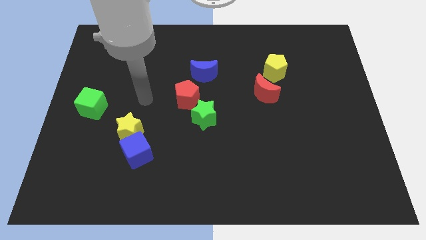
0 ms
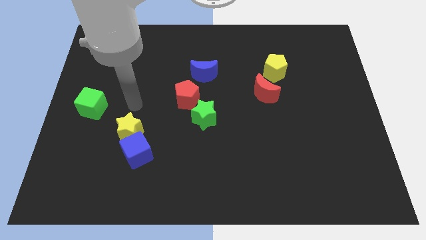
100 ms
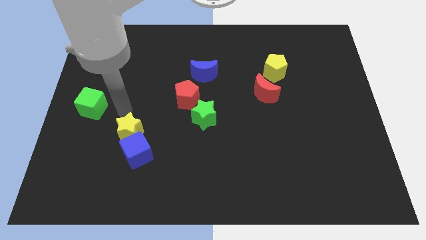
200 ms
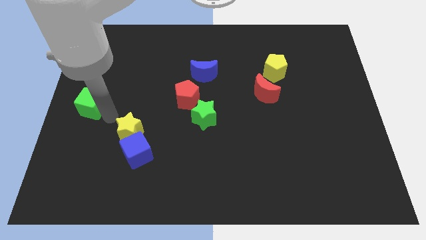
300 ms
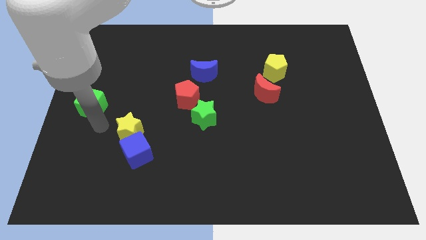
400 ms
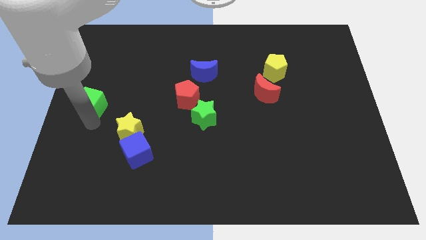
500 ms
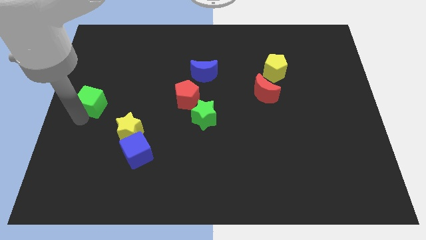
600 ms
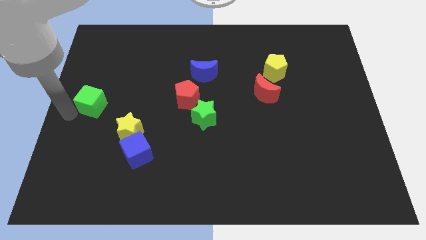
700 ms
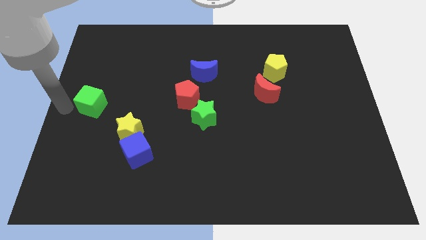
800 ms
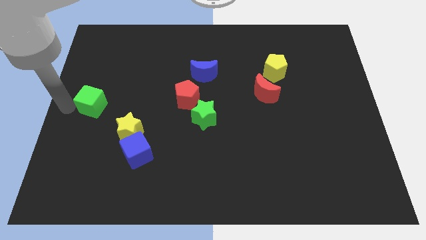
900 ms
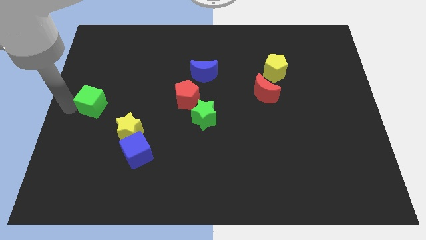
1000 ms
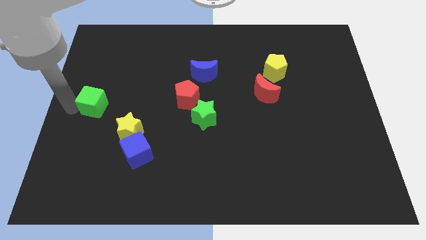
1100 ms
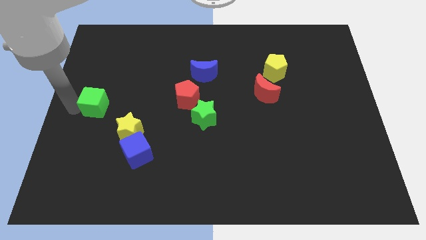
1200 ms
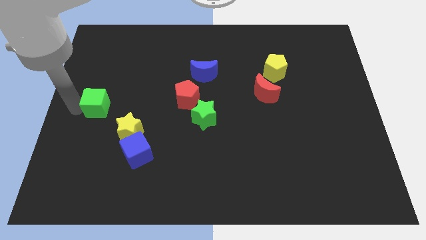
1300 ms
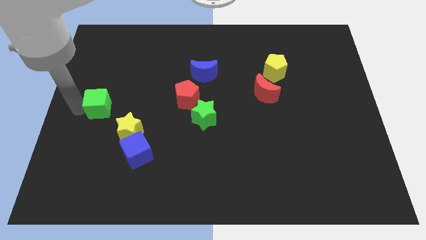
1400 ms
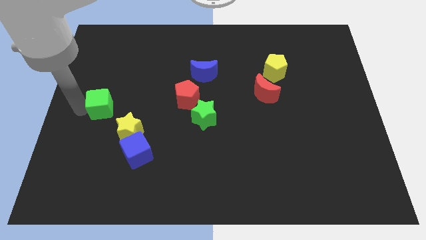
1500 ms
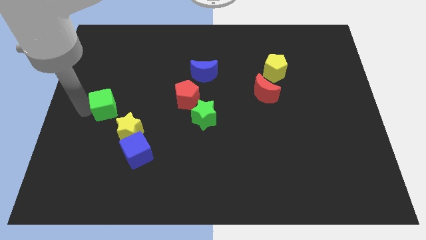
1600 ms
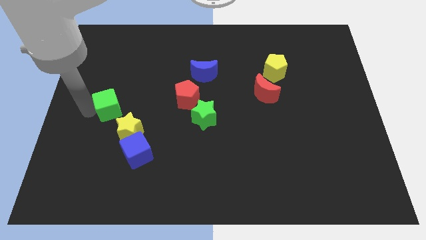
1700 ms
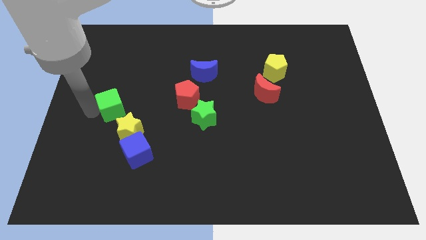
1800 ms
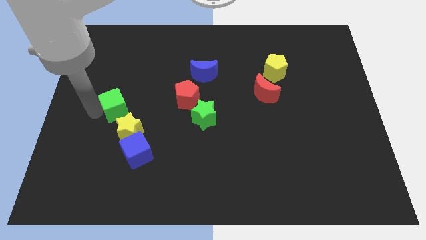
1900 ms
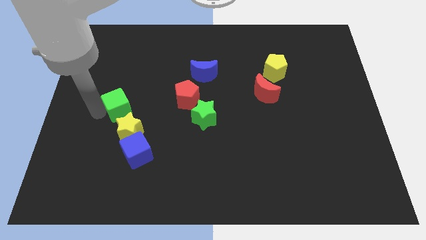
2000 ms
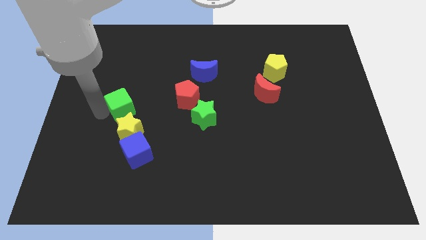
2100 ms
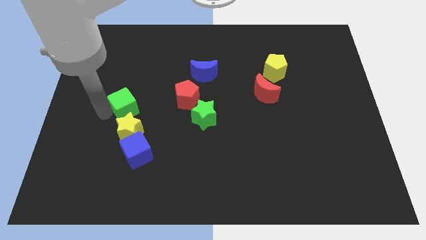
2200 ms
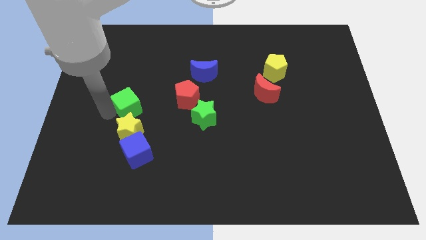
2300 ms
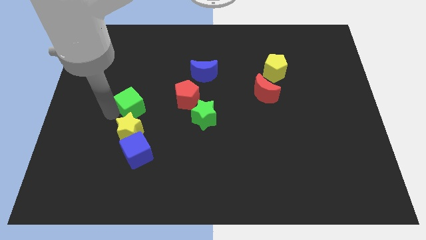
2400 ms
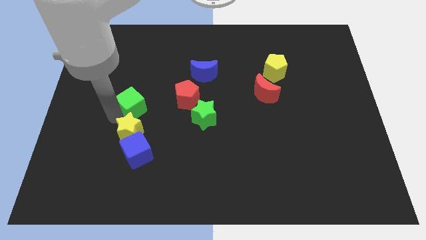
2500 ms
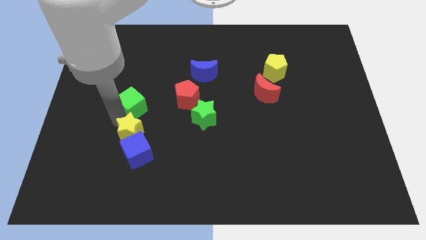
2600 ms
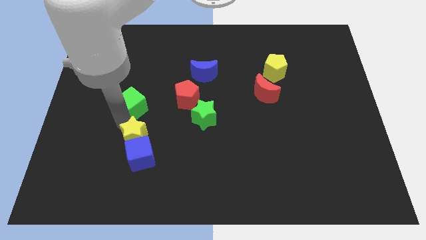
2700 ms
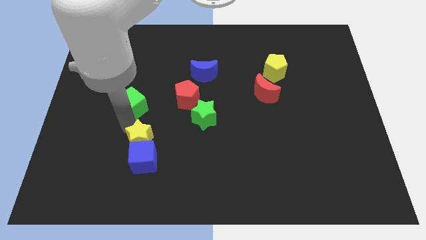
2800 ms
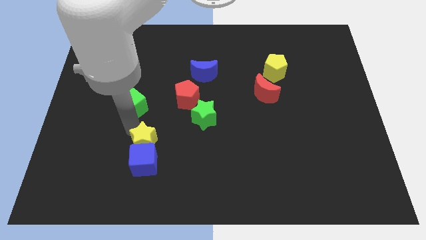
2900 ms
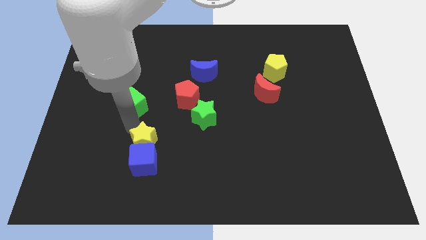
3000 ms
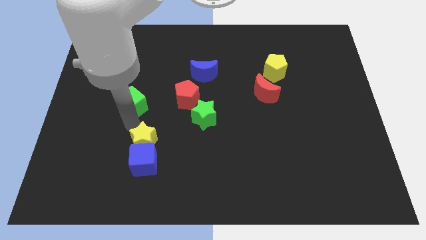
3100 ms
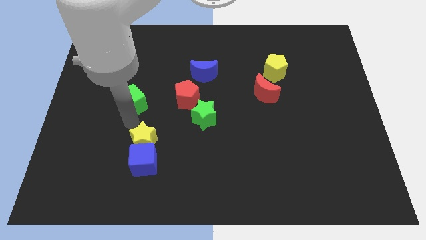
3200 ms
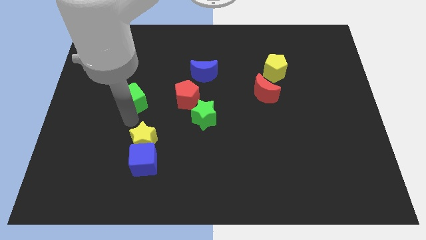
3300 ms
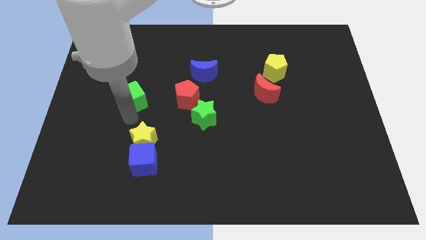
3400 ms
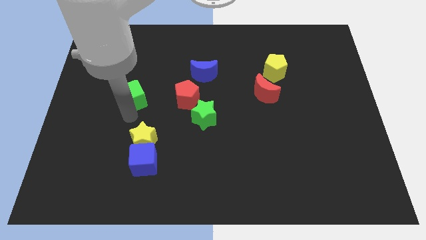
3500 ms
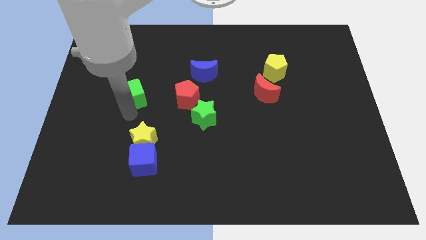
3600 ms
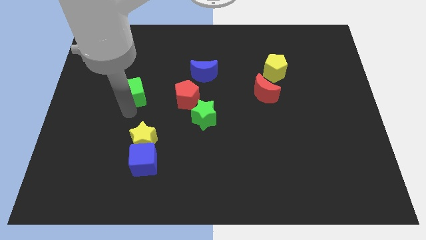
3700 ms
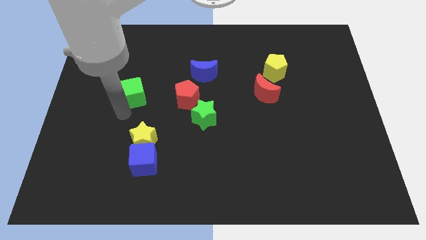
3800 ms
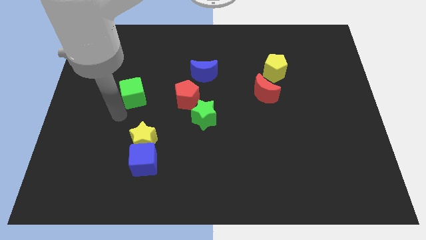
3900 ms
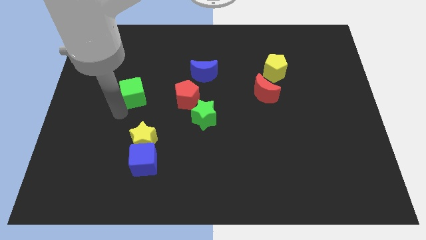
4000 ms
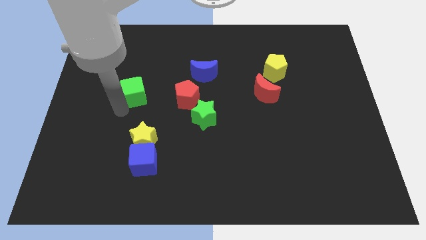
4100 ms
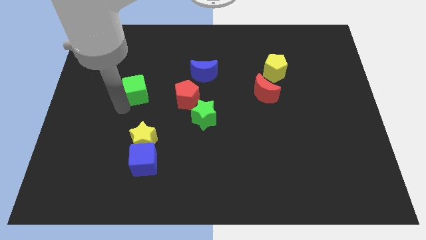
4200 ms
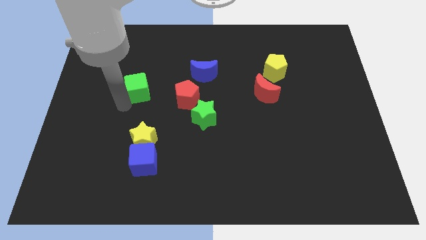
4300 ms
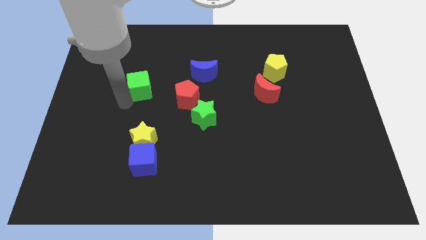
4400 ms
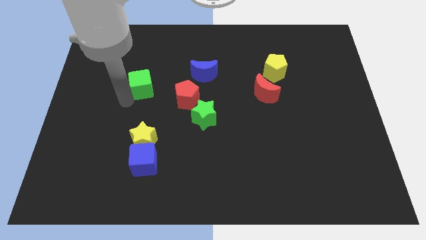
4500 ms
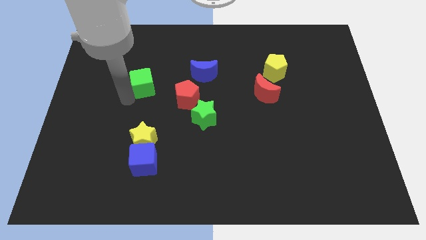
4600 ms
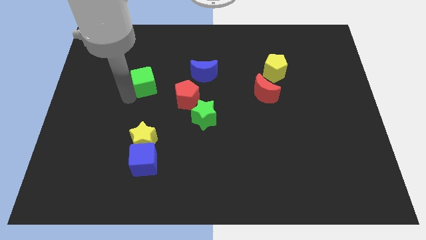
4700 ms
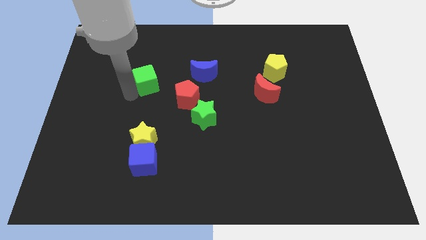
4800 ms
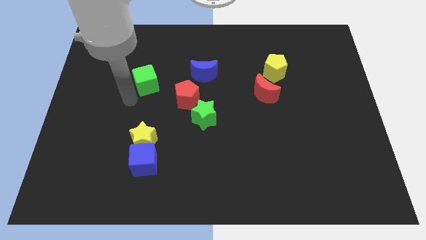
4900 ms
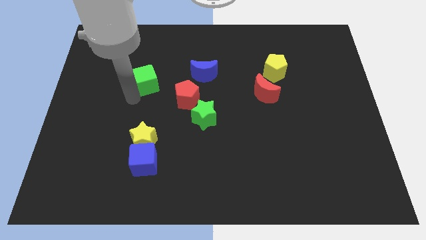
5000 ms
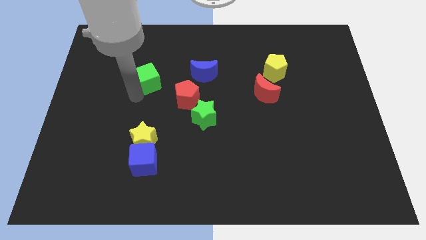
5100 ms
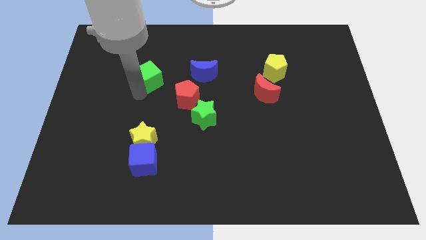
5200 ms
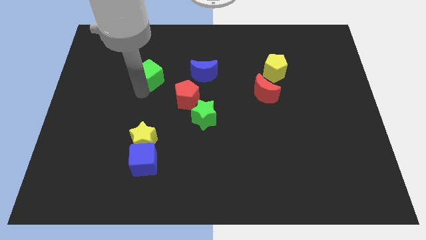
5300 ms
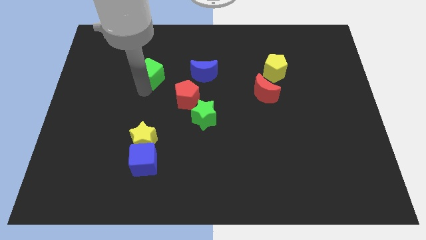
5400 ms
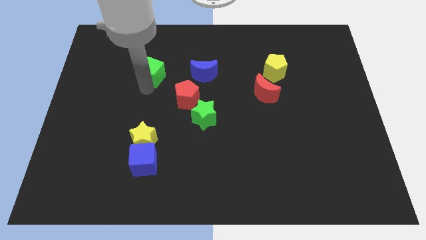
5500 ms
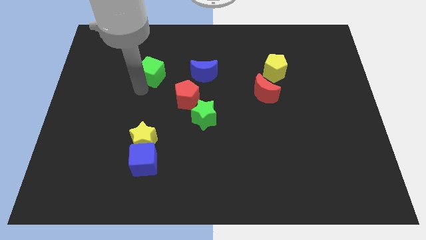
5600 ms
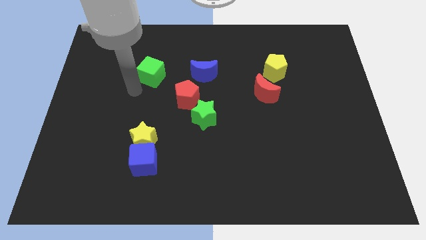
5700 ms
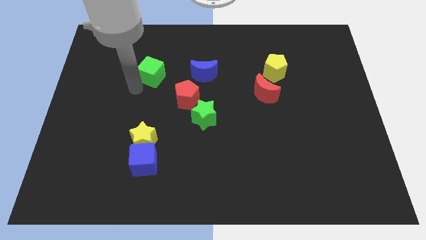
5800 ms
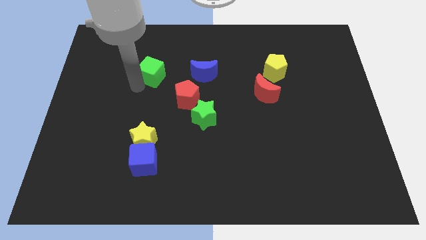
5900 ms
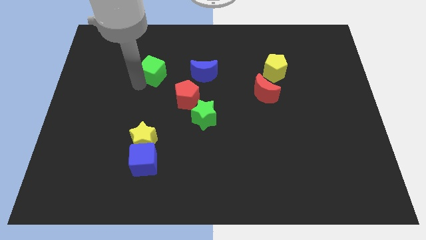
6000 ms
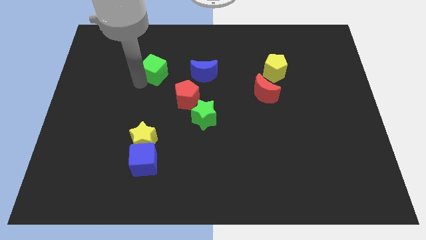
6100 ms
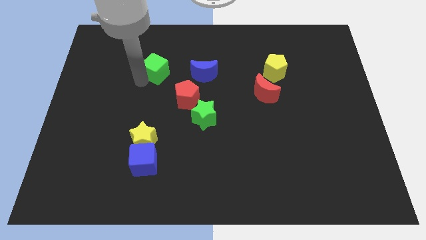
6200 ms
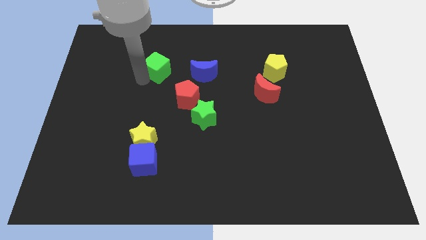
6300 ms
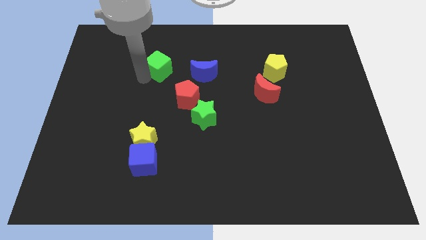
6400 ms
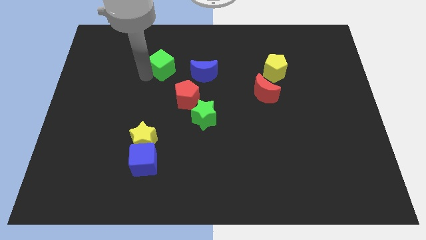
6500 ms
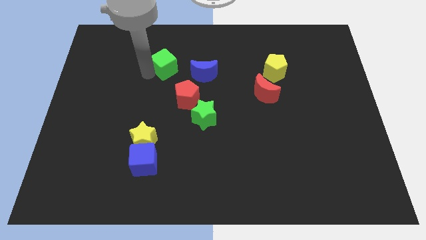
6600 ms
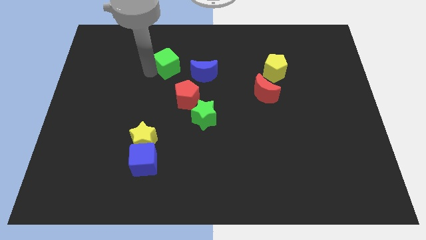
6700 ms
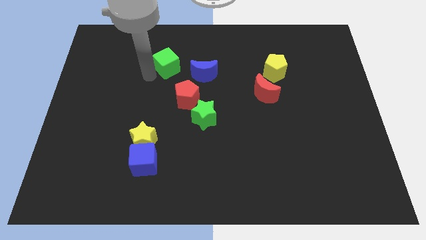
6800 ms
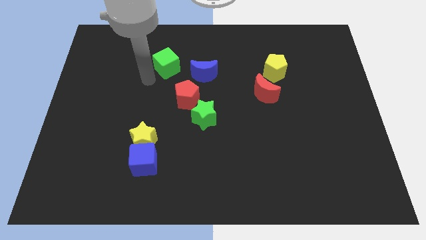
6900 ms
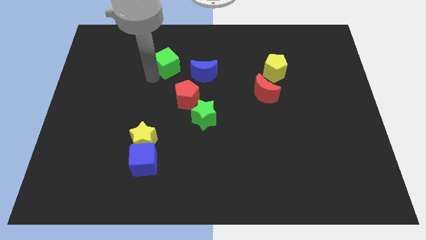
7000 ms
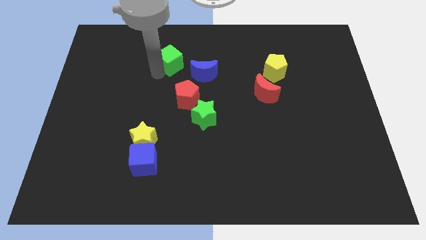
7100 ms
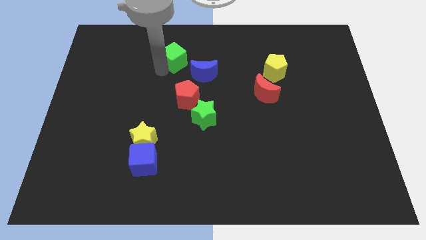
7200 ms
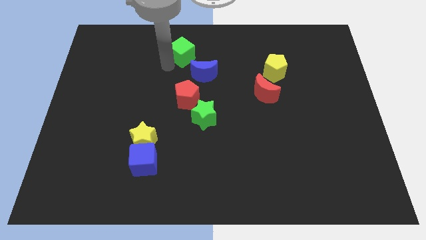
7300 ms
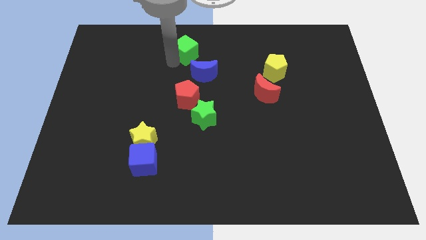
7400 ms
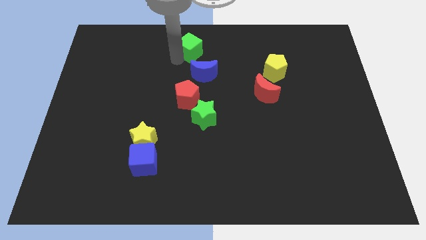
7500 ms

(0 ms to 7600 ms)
put the green cube to the towards your base
